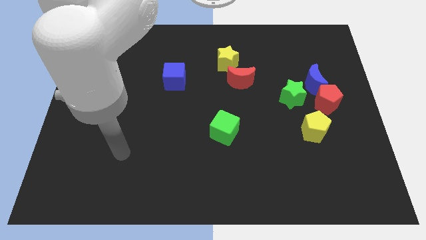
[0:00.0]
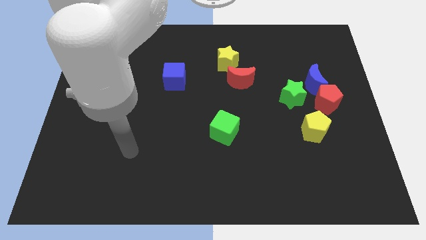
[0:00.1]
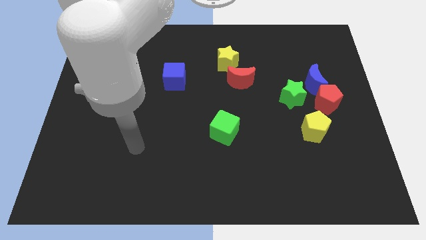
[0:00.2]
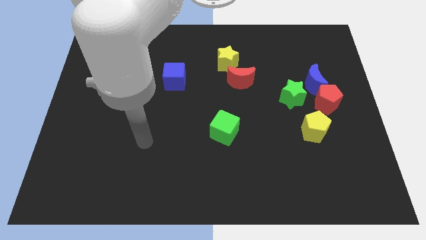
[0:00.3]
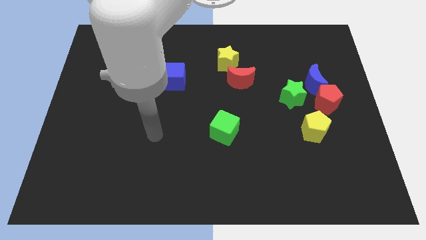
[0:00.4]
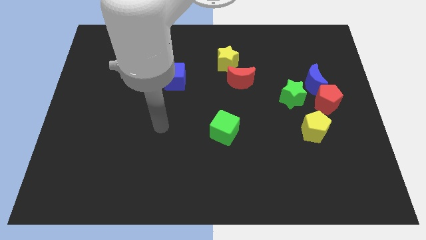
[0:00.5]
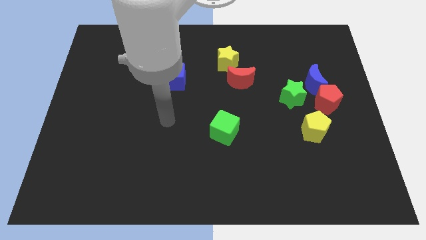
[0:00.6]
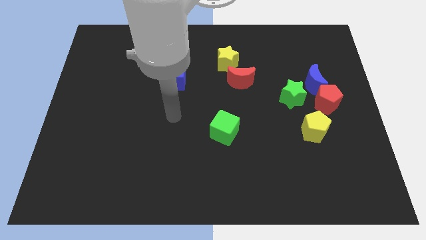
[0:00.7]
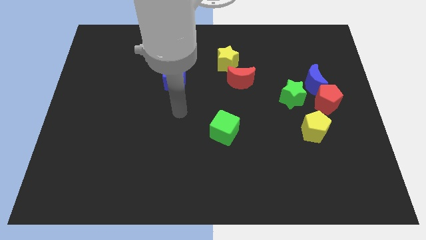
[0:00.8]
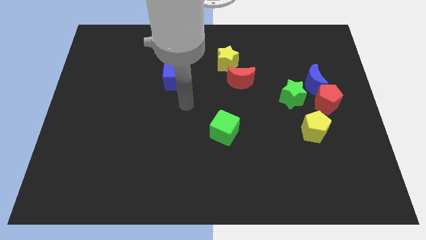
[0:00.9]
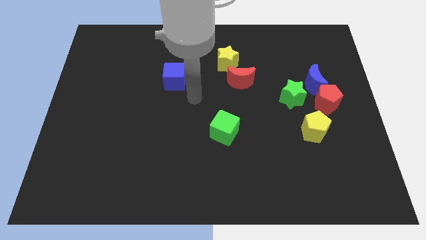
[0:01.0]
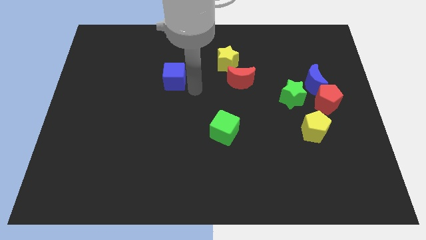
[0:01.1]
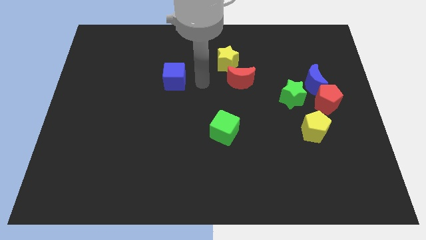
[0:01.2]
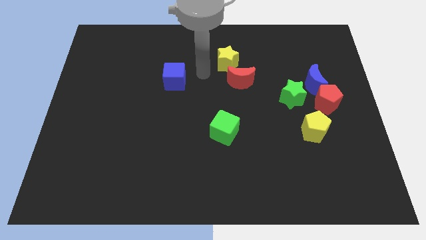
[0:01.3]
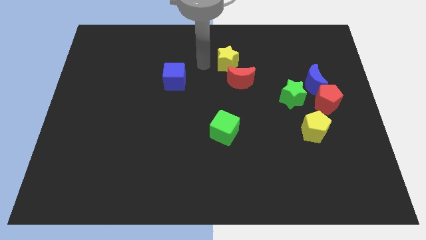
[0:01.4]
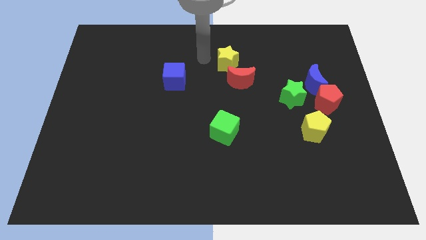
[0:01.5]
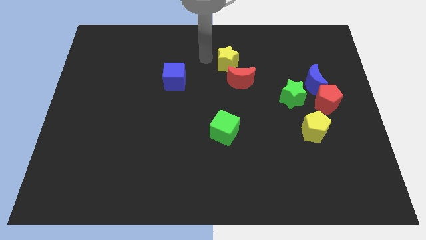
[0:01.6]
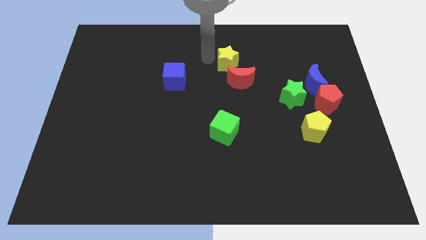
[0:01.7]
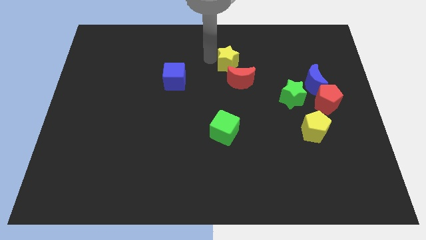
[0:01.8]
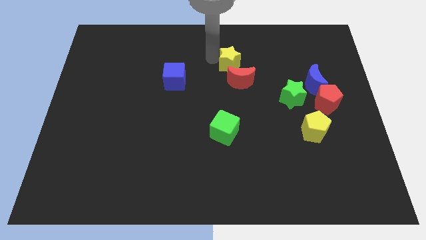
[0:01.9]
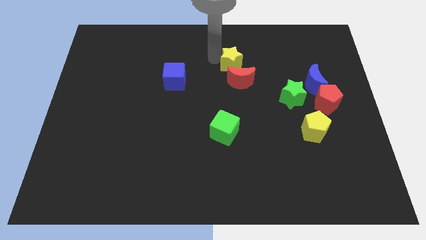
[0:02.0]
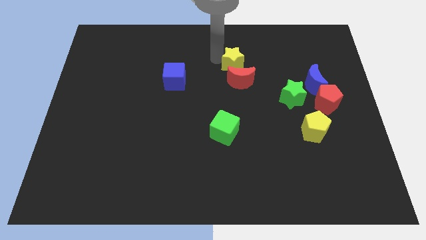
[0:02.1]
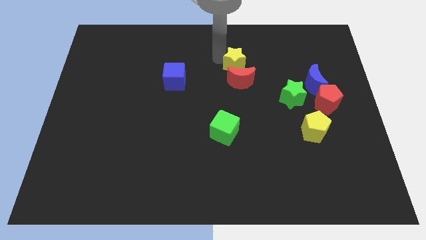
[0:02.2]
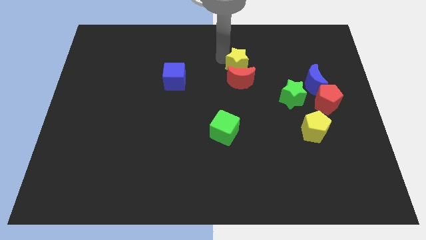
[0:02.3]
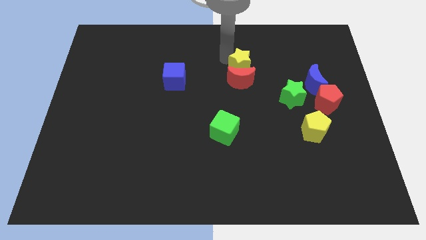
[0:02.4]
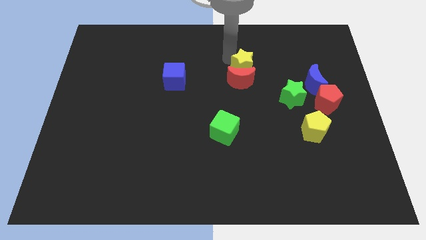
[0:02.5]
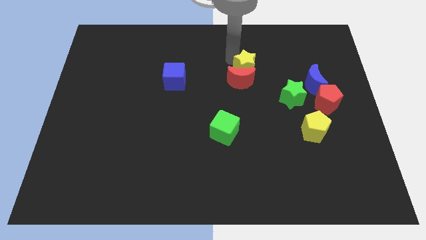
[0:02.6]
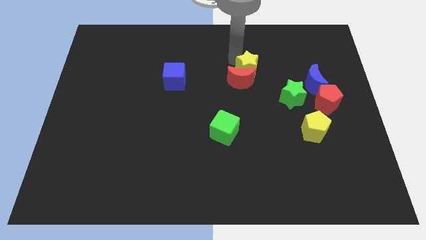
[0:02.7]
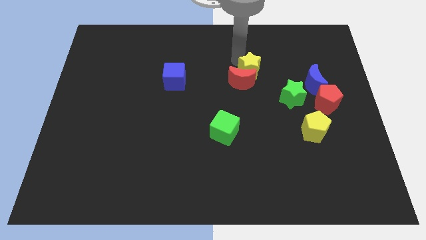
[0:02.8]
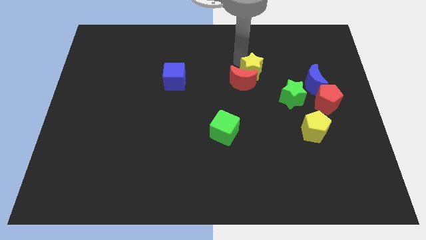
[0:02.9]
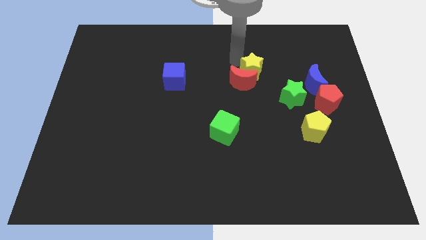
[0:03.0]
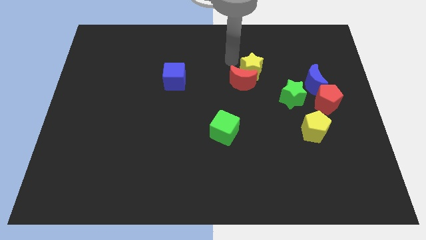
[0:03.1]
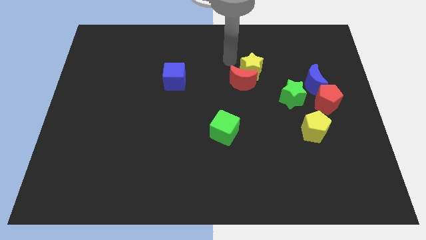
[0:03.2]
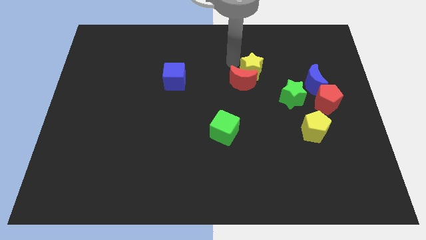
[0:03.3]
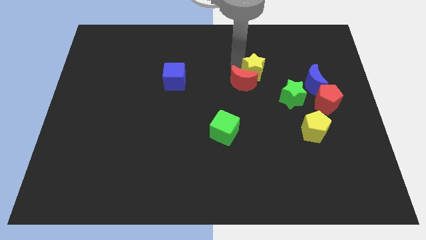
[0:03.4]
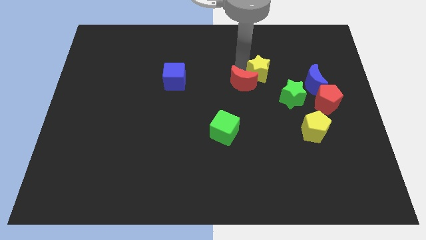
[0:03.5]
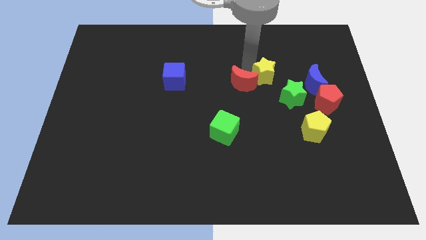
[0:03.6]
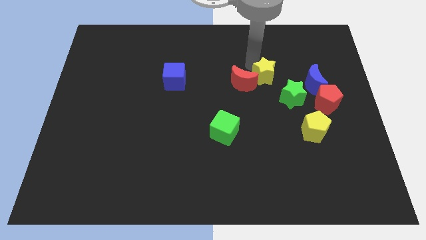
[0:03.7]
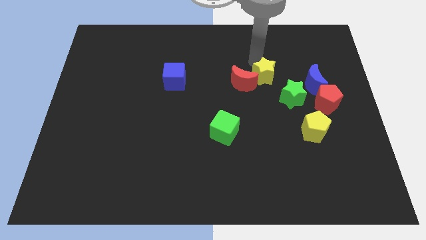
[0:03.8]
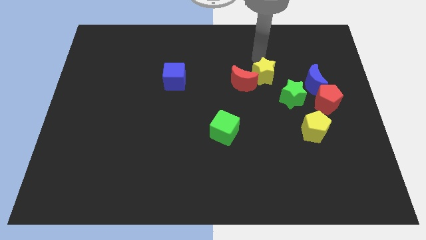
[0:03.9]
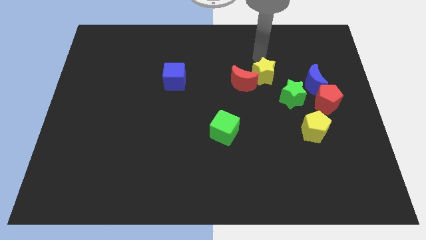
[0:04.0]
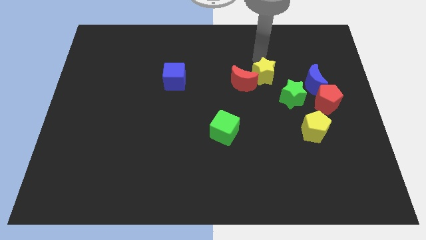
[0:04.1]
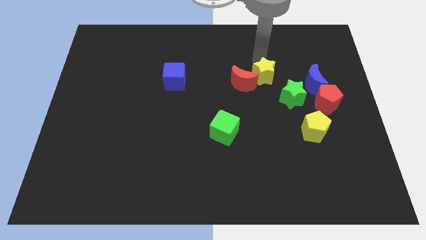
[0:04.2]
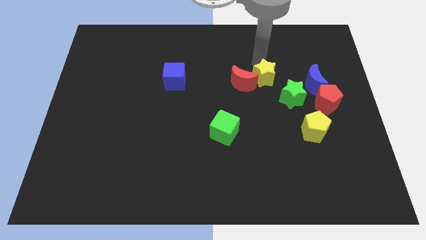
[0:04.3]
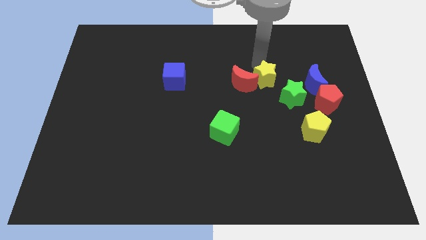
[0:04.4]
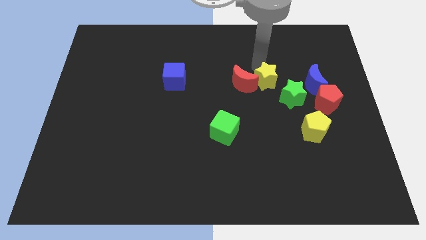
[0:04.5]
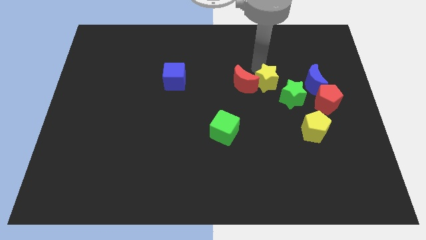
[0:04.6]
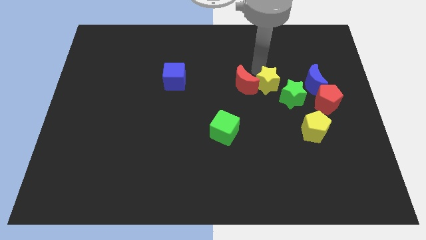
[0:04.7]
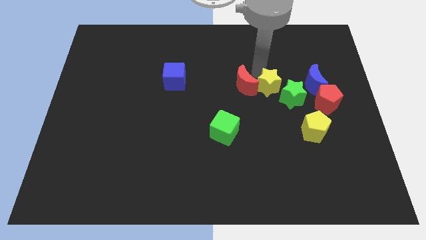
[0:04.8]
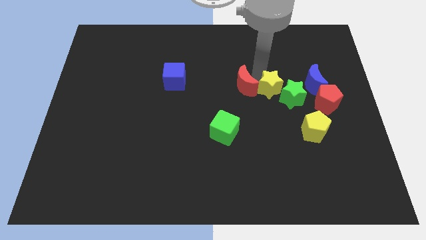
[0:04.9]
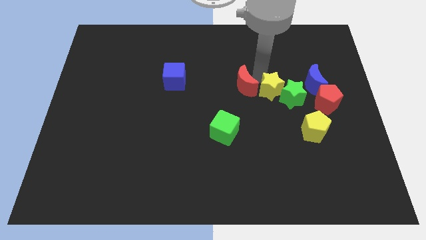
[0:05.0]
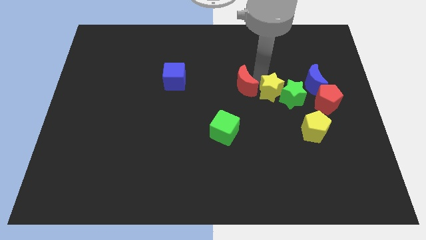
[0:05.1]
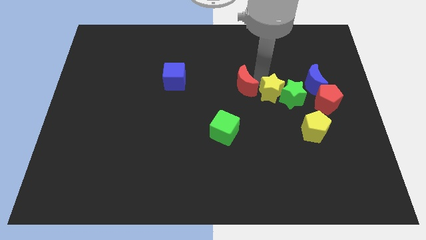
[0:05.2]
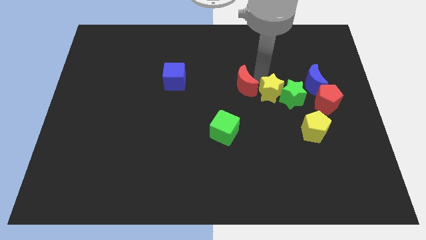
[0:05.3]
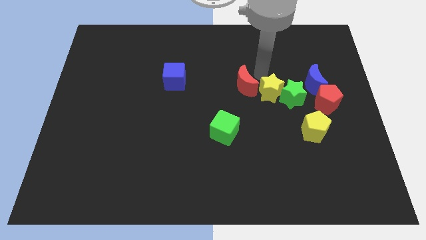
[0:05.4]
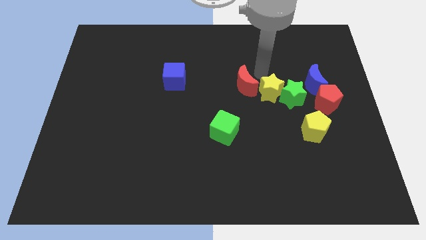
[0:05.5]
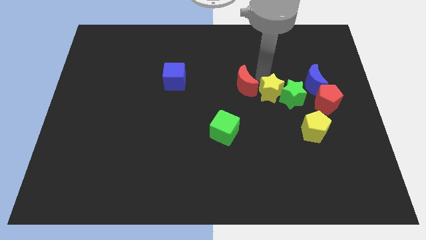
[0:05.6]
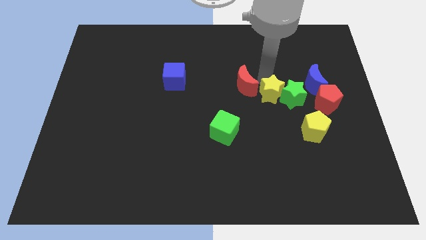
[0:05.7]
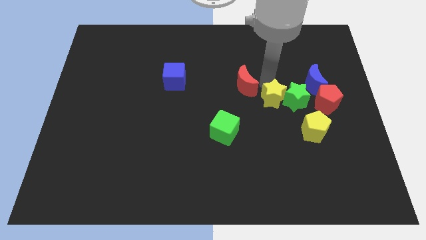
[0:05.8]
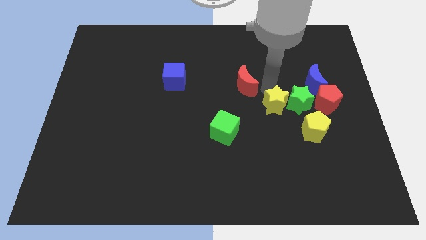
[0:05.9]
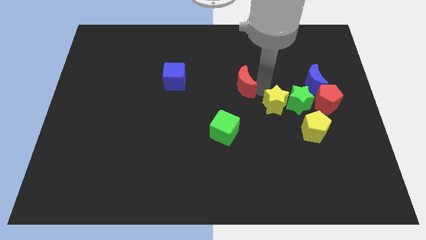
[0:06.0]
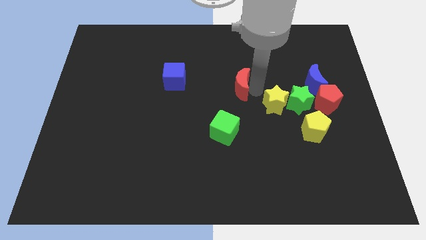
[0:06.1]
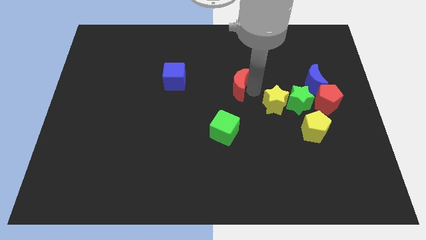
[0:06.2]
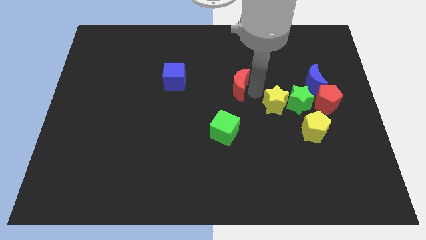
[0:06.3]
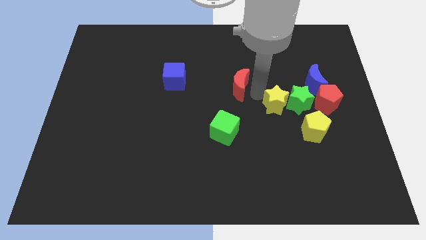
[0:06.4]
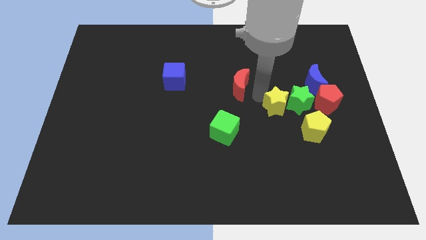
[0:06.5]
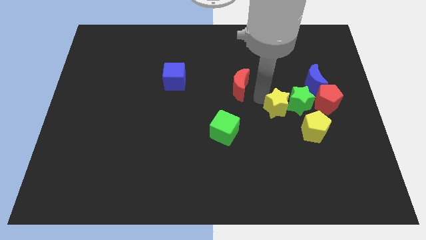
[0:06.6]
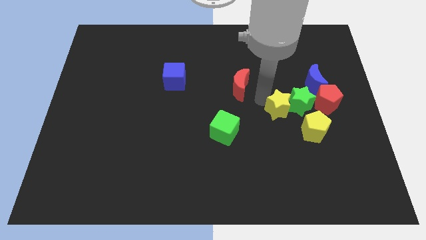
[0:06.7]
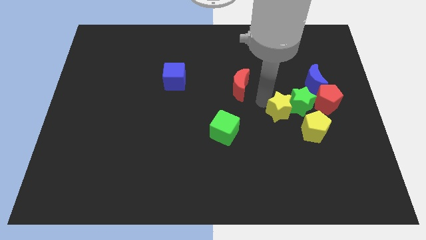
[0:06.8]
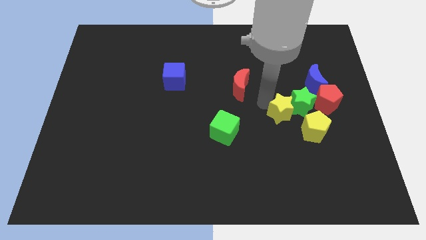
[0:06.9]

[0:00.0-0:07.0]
move the yellow star down and then to the right

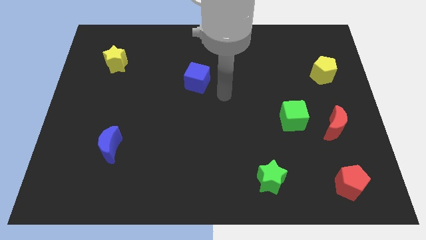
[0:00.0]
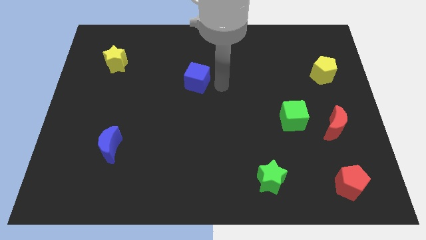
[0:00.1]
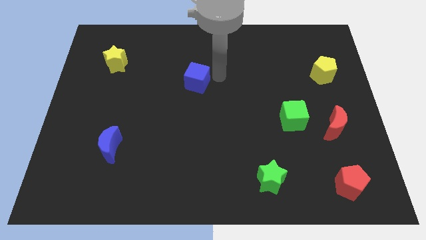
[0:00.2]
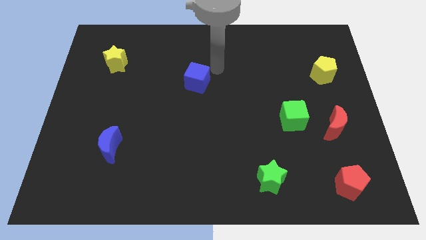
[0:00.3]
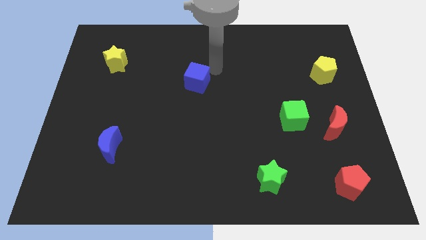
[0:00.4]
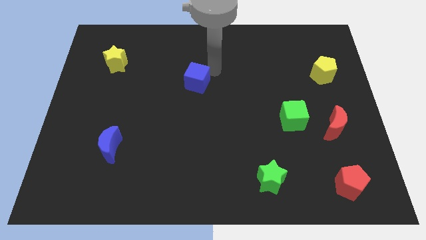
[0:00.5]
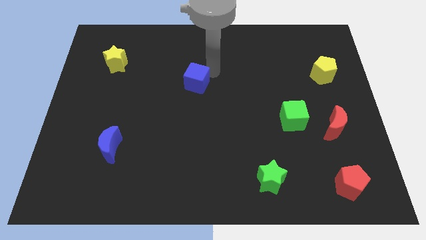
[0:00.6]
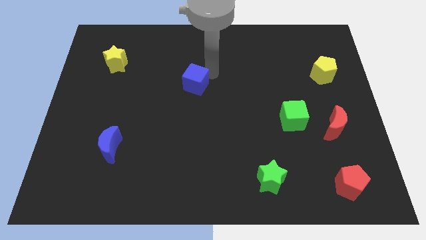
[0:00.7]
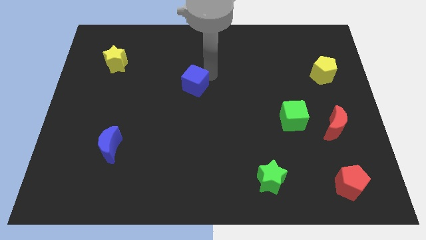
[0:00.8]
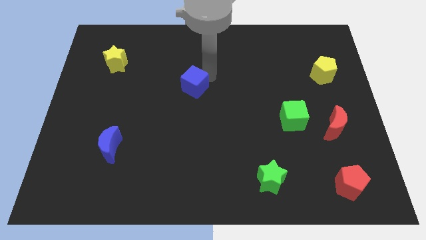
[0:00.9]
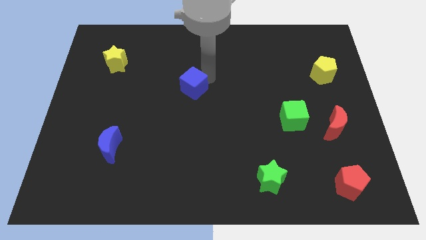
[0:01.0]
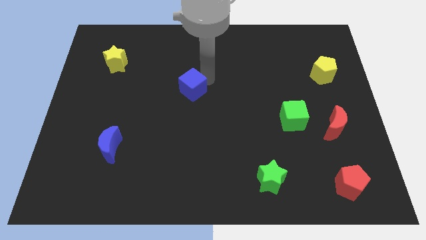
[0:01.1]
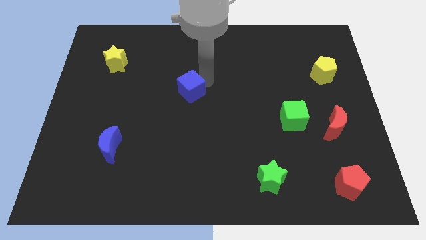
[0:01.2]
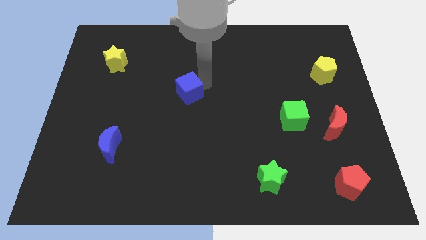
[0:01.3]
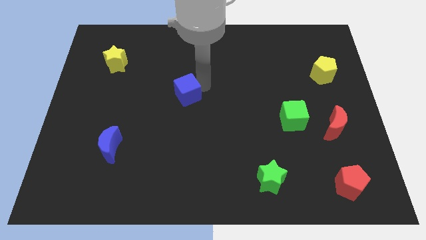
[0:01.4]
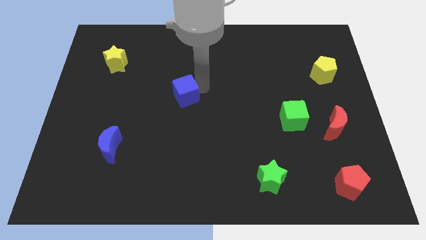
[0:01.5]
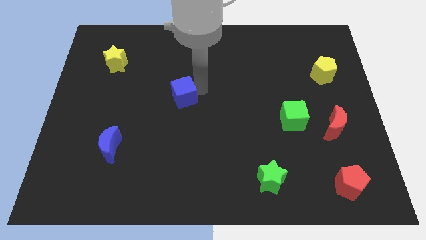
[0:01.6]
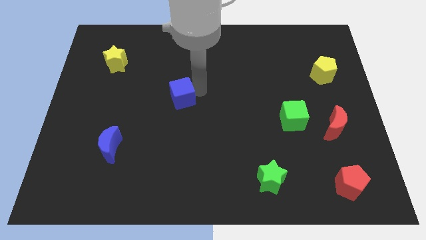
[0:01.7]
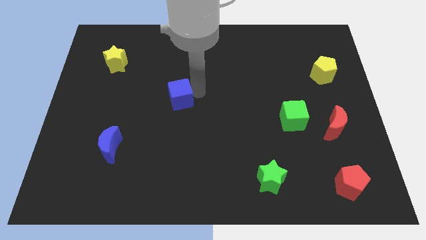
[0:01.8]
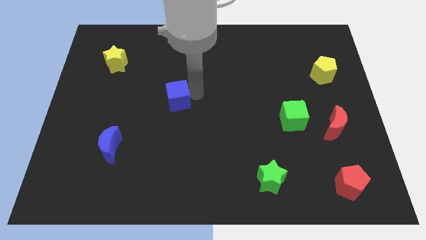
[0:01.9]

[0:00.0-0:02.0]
slightly move the blue cube diagonally down and to the left
